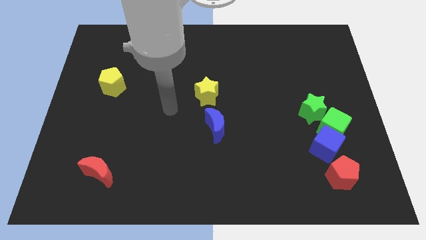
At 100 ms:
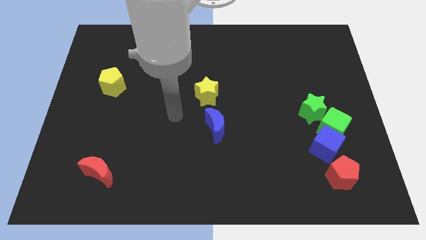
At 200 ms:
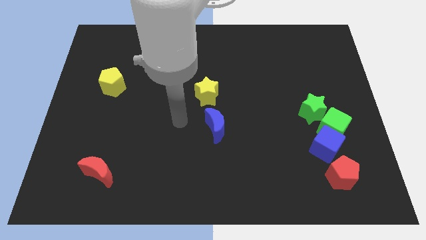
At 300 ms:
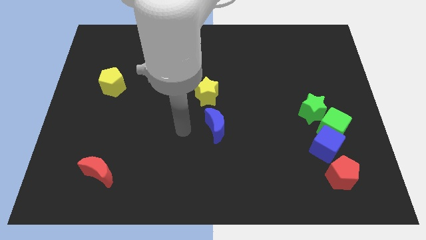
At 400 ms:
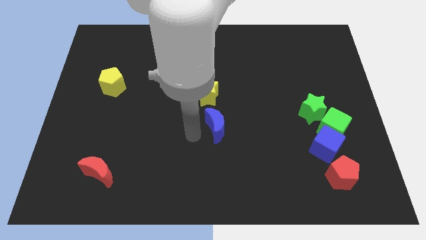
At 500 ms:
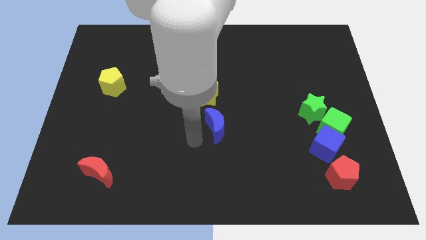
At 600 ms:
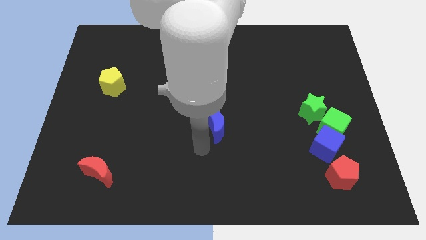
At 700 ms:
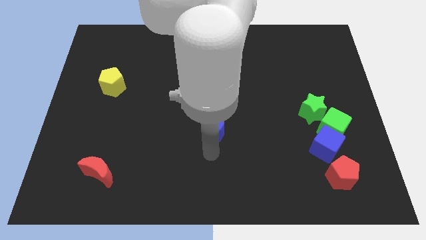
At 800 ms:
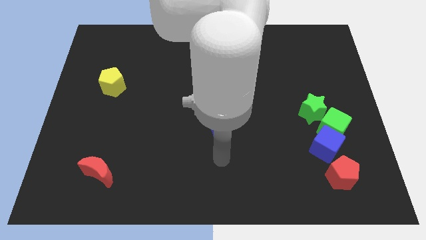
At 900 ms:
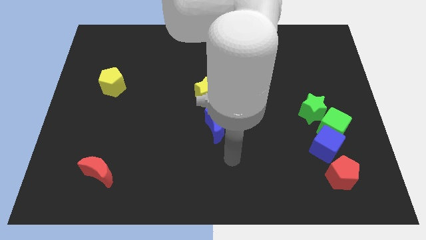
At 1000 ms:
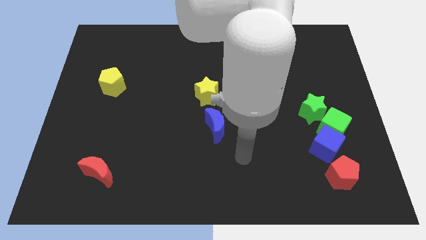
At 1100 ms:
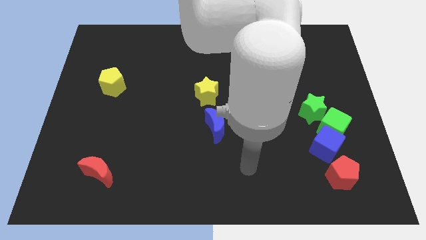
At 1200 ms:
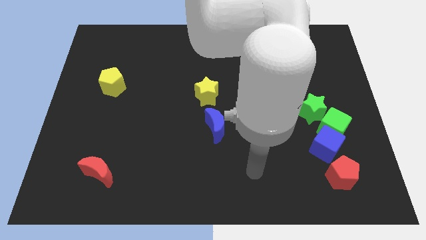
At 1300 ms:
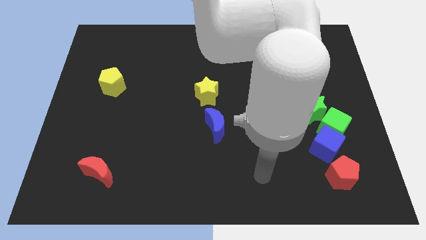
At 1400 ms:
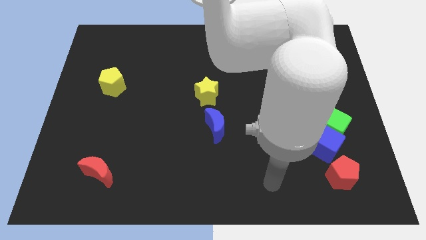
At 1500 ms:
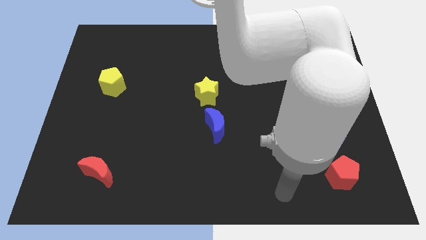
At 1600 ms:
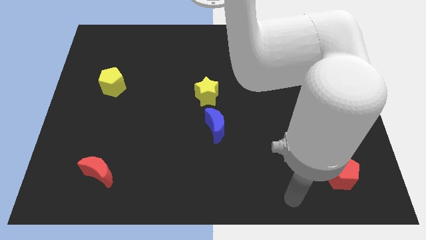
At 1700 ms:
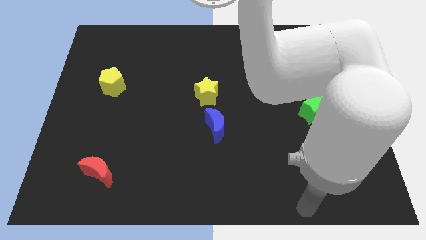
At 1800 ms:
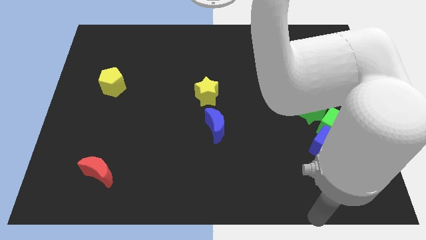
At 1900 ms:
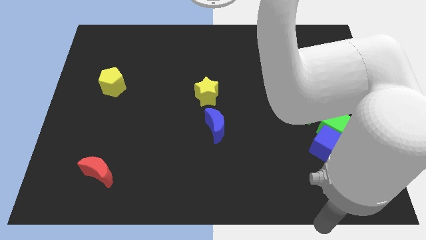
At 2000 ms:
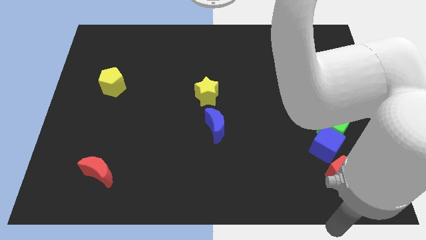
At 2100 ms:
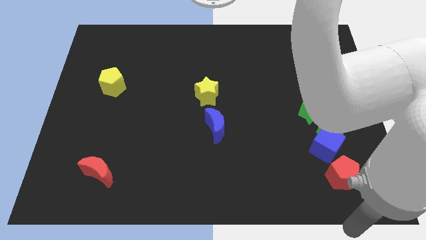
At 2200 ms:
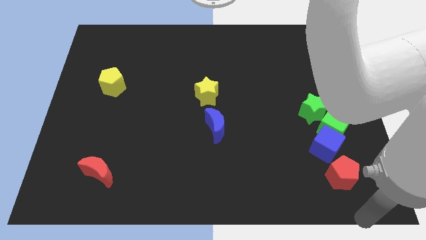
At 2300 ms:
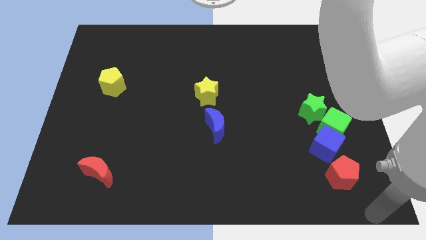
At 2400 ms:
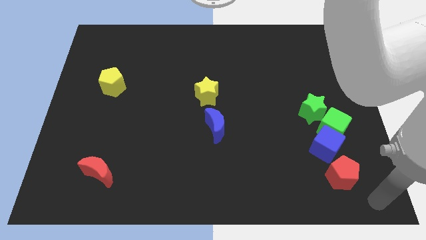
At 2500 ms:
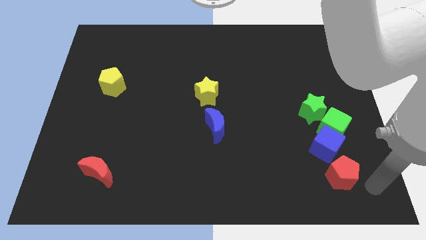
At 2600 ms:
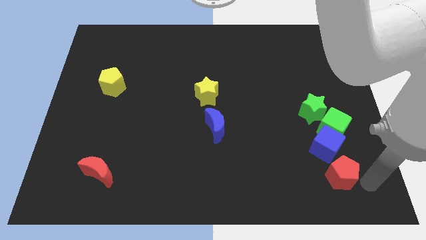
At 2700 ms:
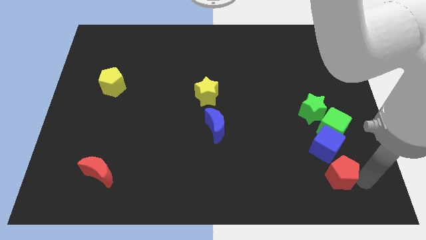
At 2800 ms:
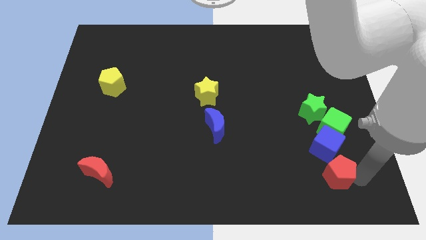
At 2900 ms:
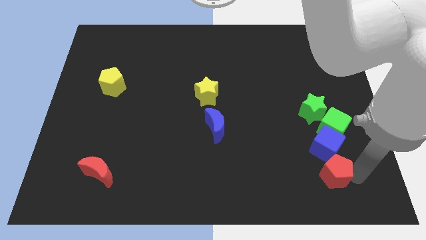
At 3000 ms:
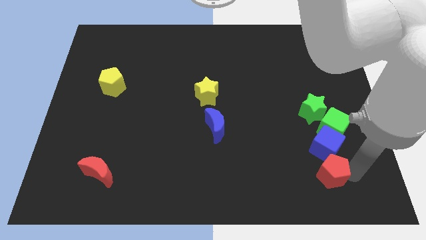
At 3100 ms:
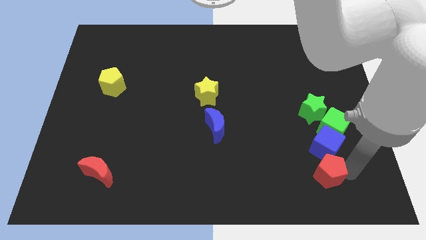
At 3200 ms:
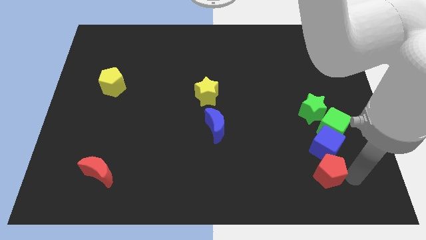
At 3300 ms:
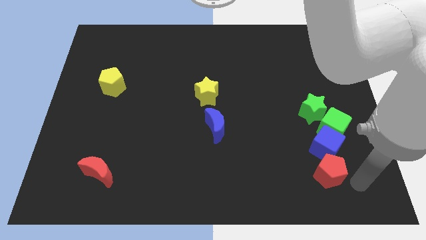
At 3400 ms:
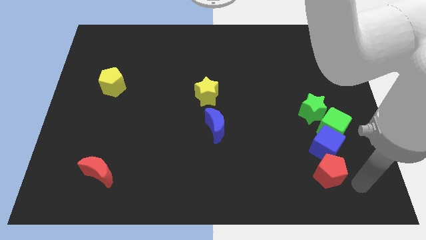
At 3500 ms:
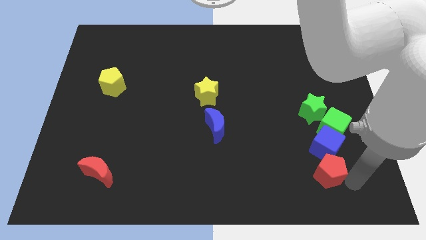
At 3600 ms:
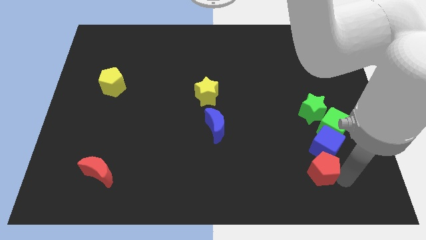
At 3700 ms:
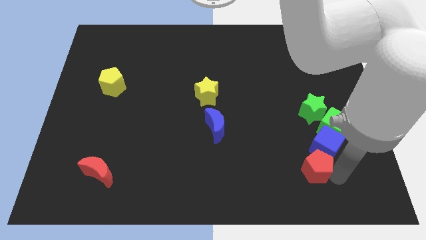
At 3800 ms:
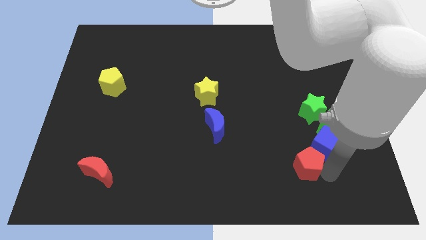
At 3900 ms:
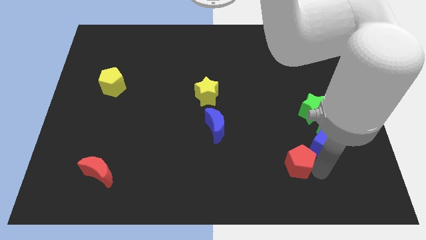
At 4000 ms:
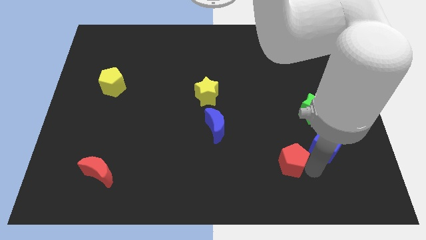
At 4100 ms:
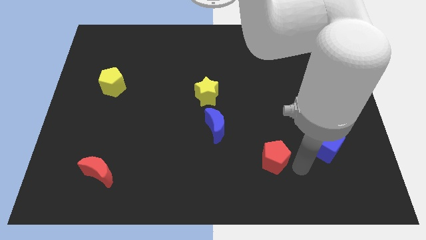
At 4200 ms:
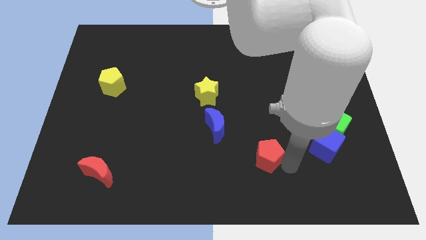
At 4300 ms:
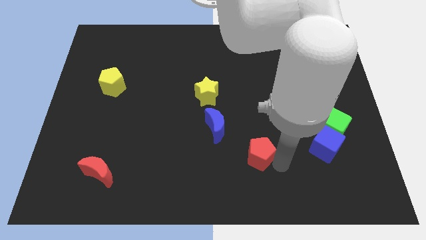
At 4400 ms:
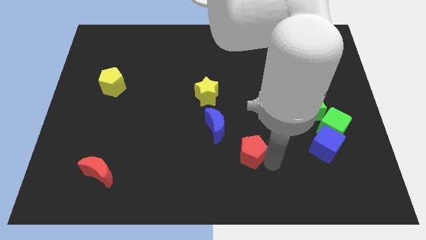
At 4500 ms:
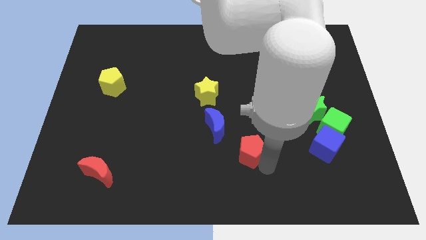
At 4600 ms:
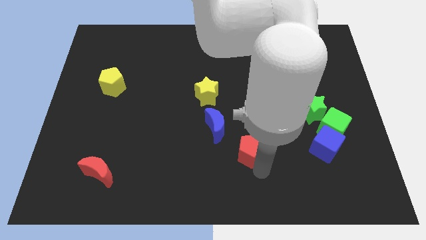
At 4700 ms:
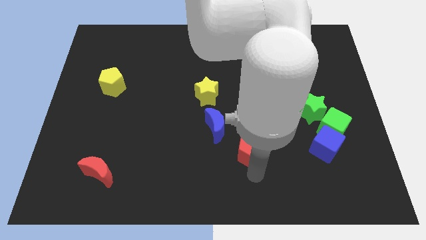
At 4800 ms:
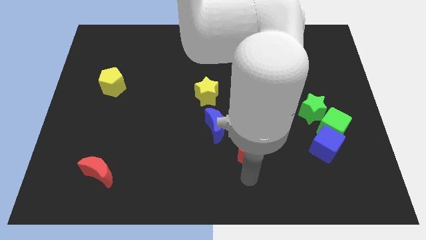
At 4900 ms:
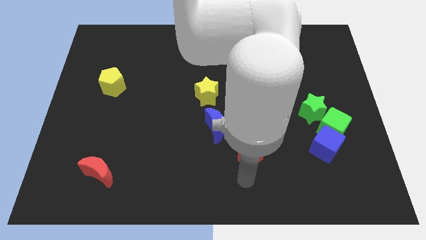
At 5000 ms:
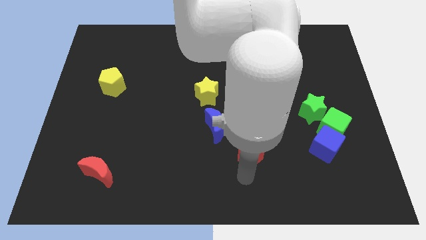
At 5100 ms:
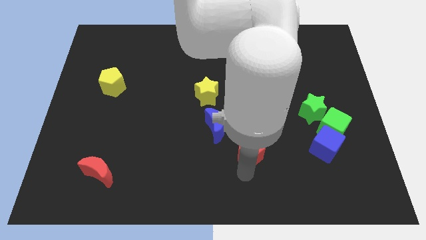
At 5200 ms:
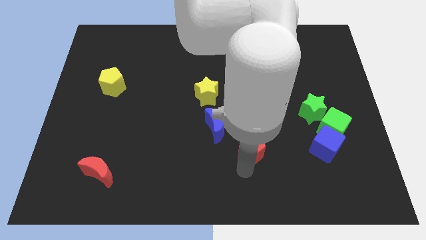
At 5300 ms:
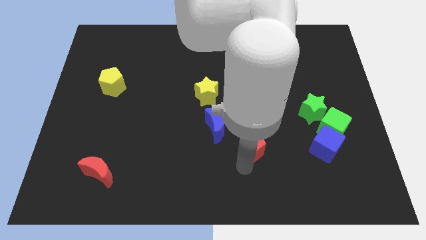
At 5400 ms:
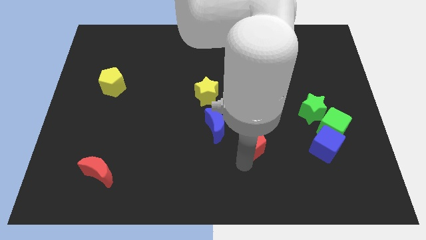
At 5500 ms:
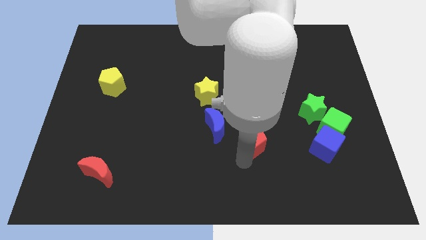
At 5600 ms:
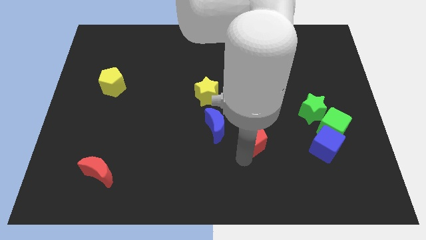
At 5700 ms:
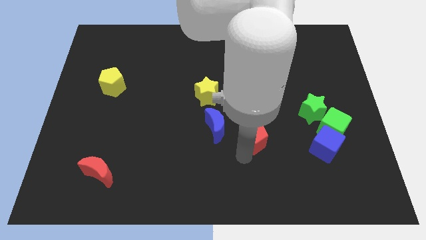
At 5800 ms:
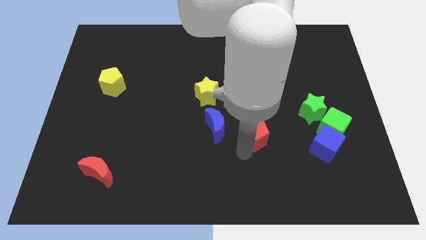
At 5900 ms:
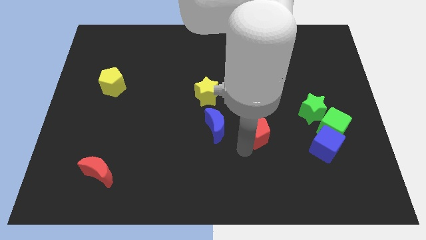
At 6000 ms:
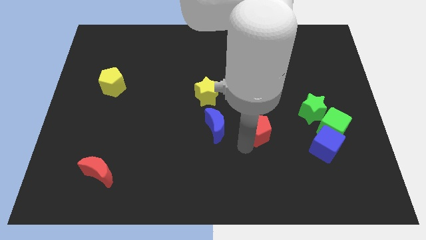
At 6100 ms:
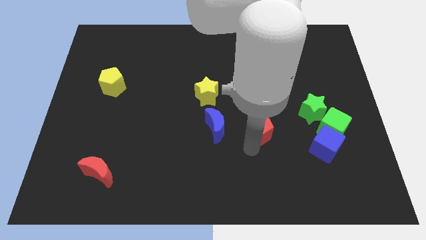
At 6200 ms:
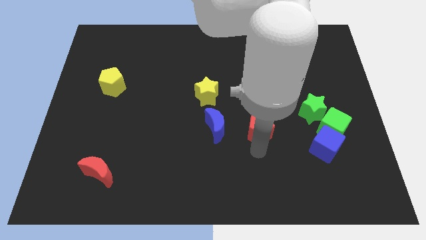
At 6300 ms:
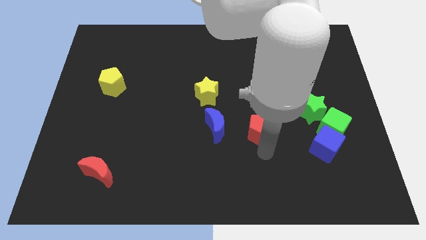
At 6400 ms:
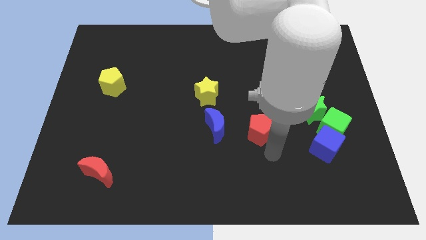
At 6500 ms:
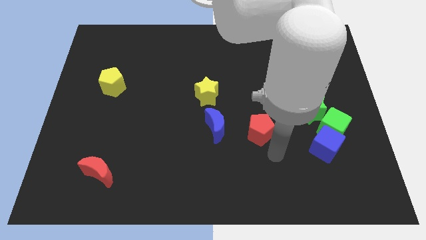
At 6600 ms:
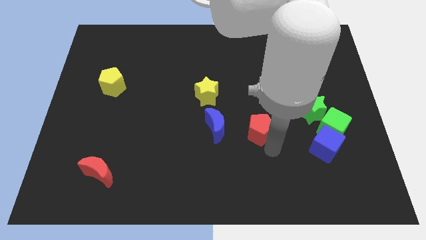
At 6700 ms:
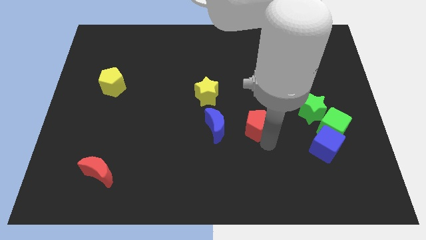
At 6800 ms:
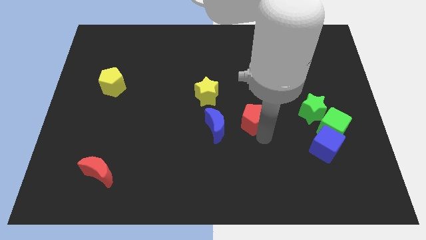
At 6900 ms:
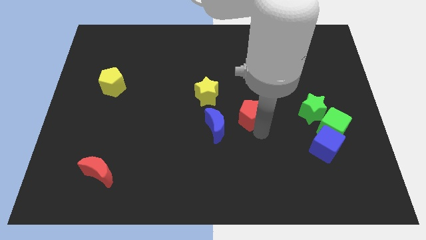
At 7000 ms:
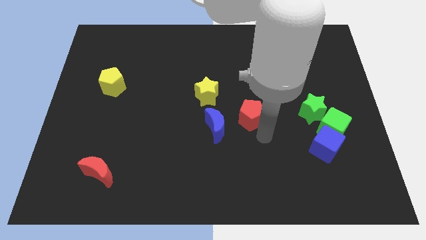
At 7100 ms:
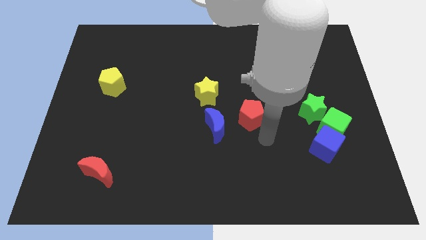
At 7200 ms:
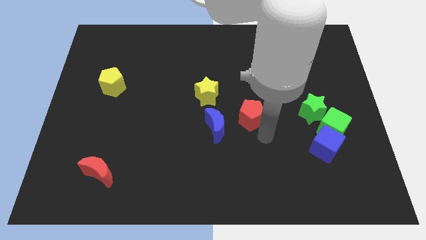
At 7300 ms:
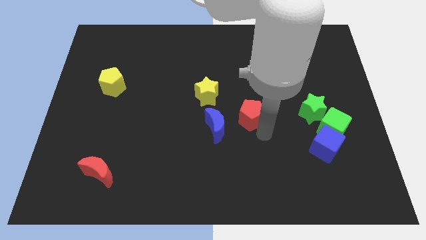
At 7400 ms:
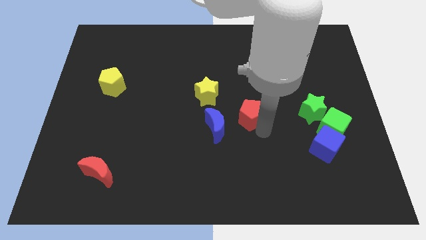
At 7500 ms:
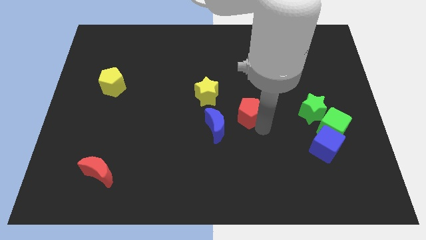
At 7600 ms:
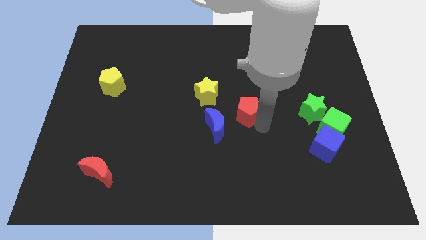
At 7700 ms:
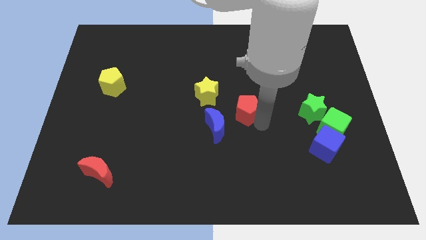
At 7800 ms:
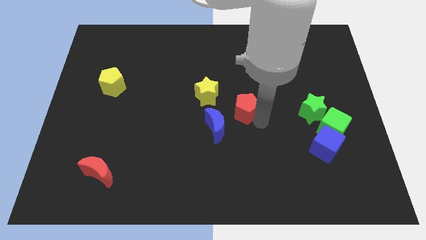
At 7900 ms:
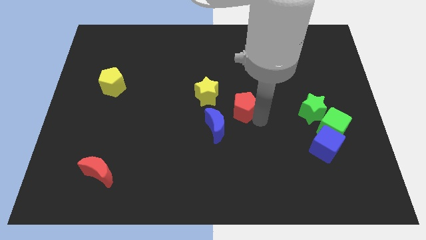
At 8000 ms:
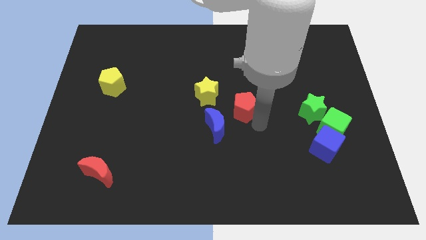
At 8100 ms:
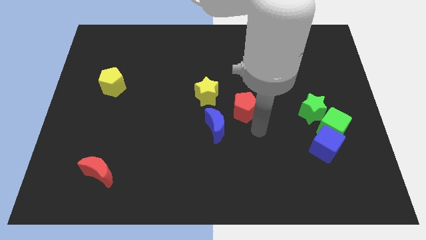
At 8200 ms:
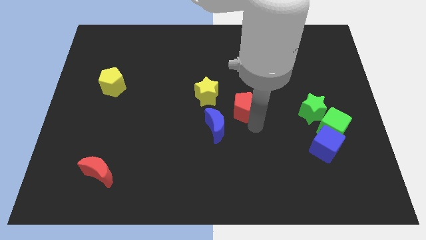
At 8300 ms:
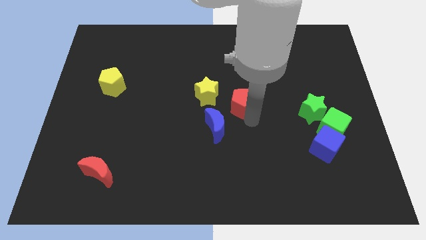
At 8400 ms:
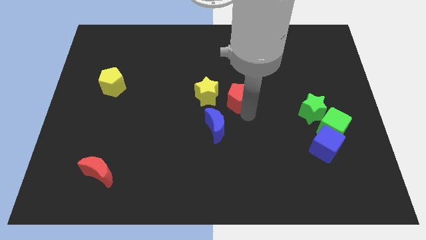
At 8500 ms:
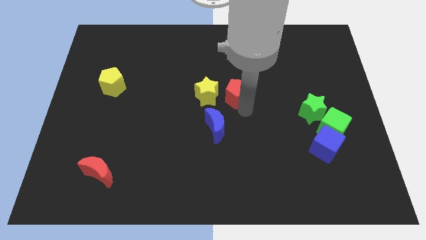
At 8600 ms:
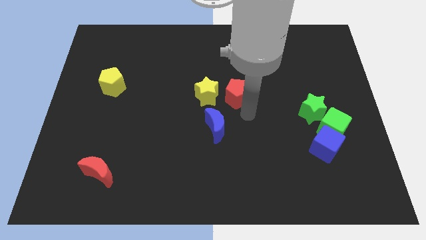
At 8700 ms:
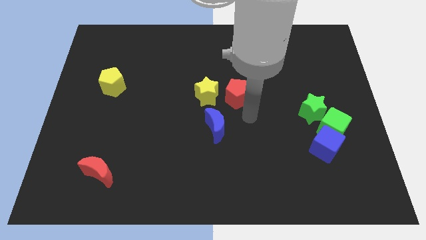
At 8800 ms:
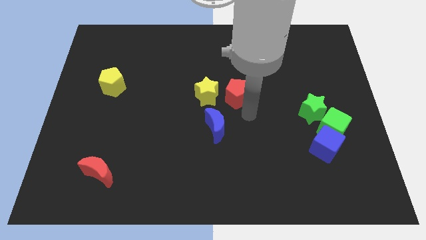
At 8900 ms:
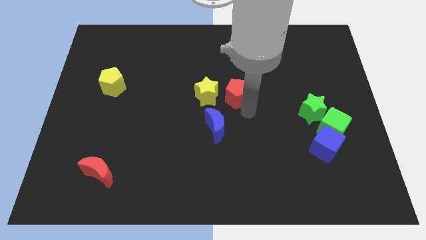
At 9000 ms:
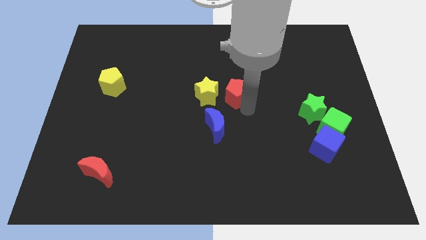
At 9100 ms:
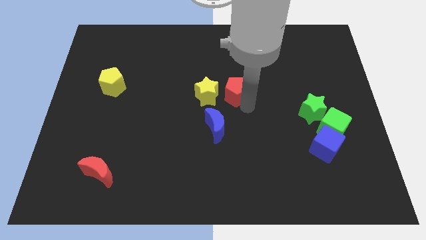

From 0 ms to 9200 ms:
put the red pentagon to the top right side of the yellow star
